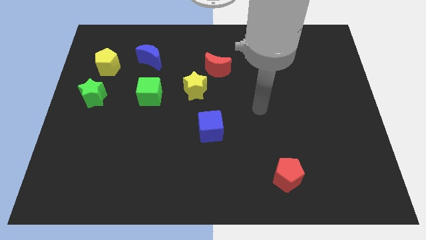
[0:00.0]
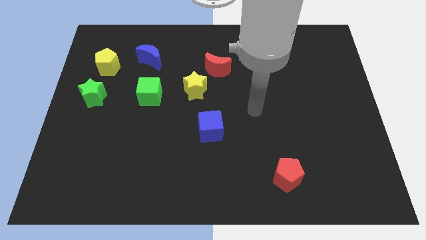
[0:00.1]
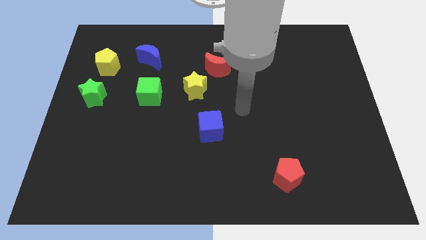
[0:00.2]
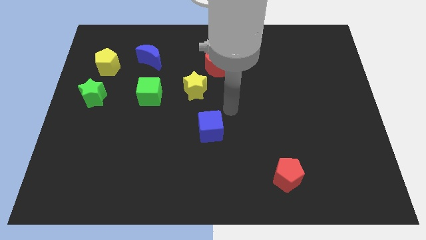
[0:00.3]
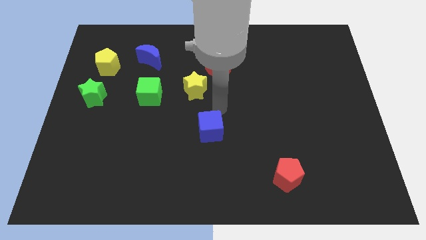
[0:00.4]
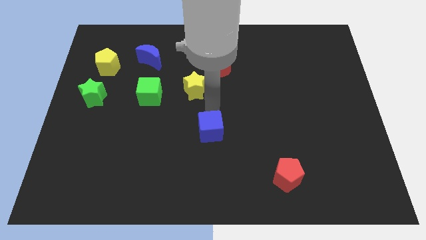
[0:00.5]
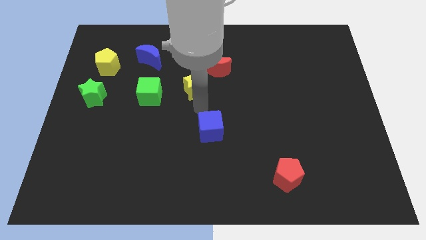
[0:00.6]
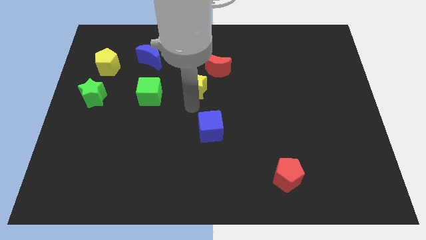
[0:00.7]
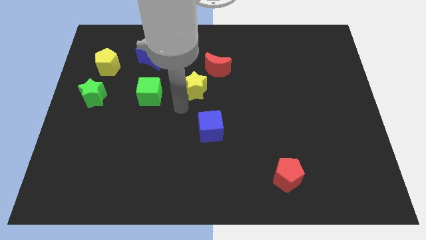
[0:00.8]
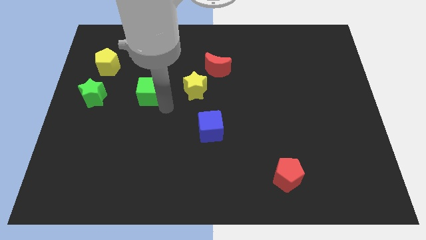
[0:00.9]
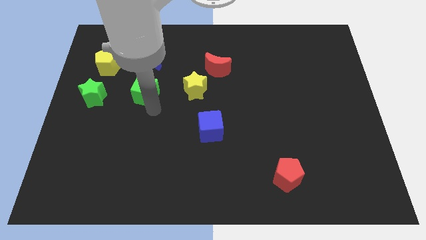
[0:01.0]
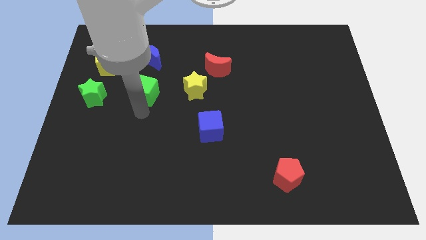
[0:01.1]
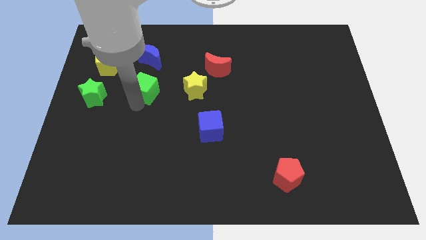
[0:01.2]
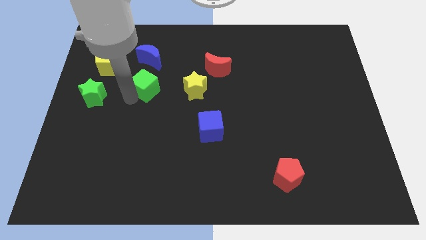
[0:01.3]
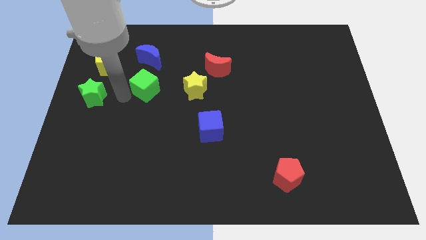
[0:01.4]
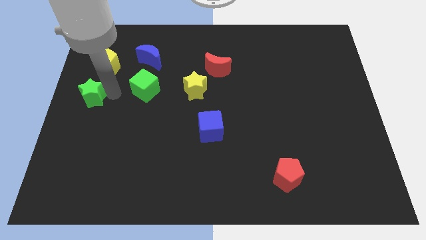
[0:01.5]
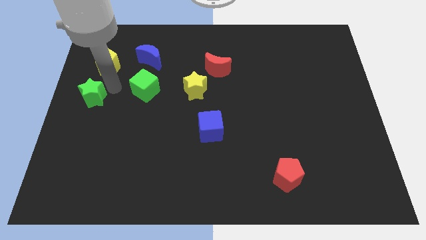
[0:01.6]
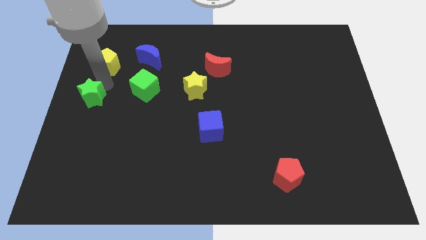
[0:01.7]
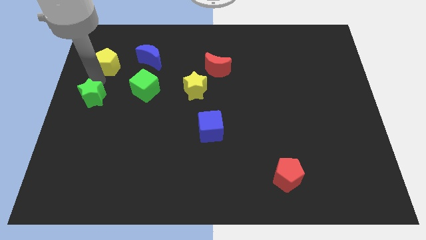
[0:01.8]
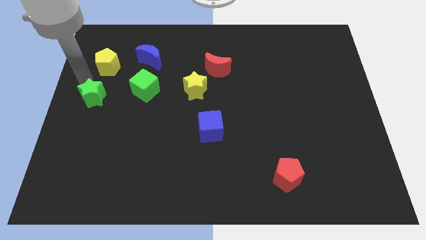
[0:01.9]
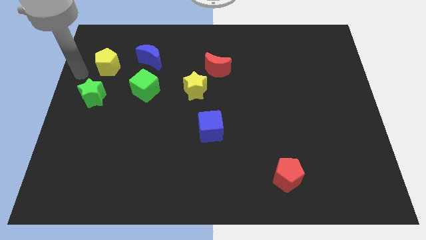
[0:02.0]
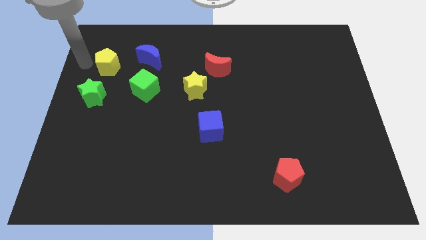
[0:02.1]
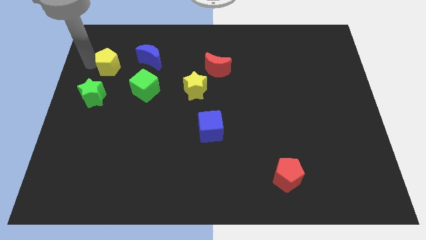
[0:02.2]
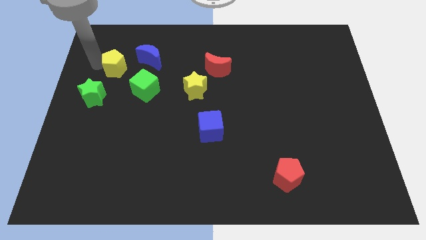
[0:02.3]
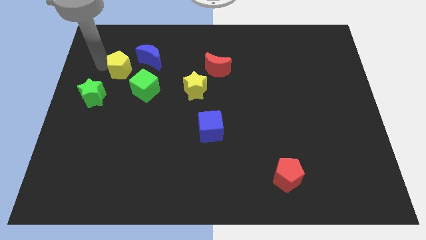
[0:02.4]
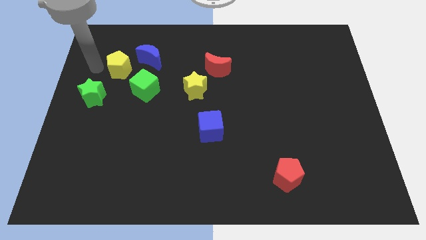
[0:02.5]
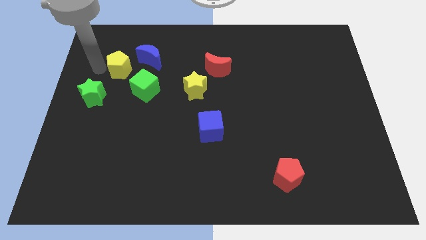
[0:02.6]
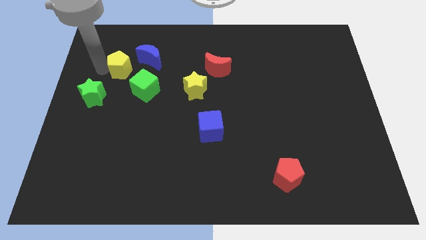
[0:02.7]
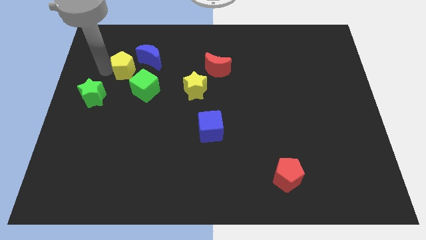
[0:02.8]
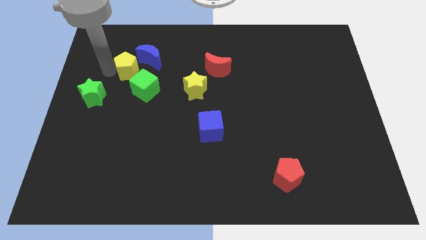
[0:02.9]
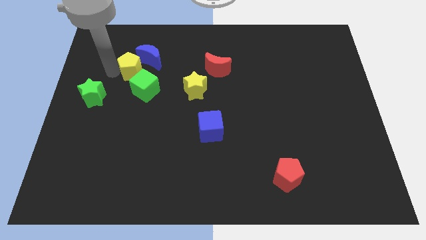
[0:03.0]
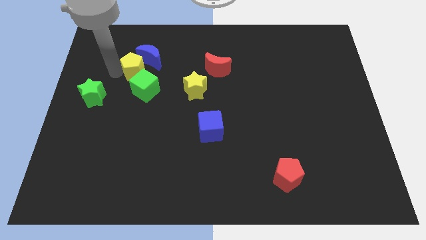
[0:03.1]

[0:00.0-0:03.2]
slightly slide the yellow pentagon to the right

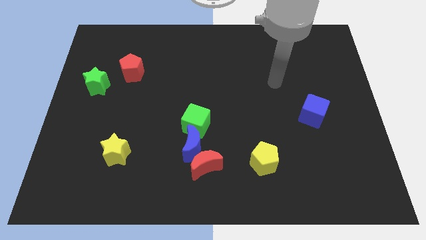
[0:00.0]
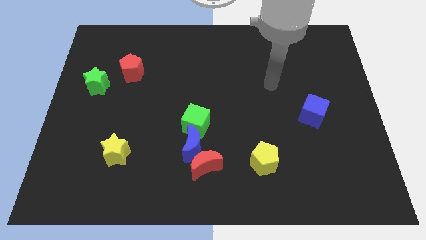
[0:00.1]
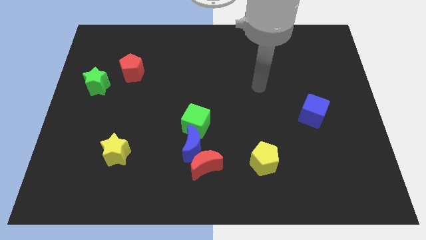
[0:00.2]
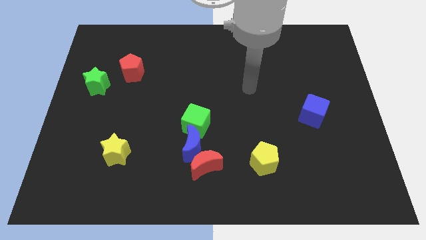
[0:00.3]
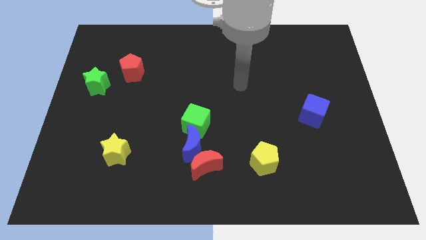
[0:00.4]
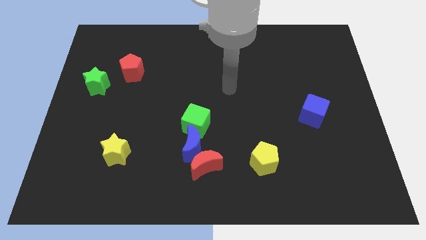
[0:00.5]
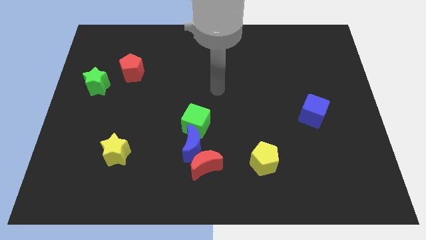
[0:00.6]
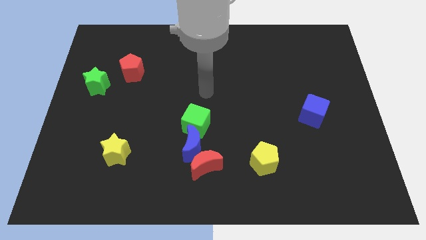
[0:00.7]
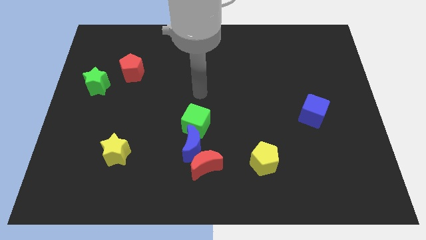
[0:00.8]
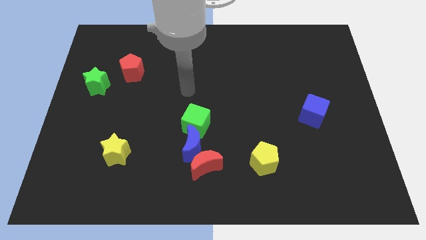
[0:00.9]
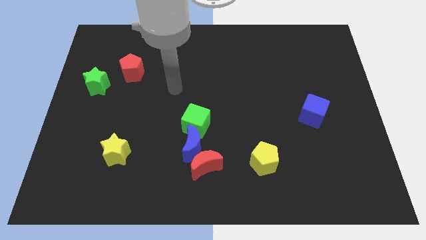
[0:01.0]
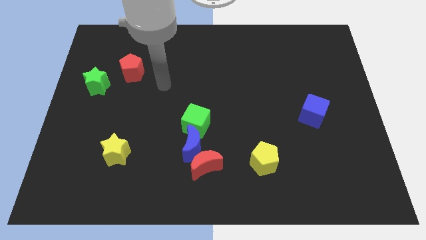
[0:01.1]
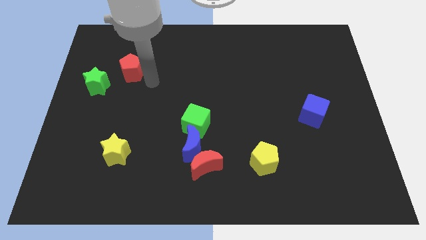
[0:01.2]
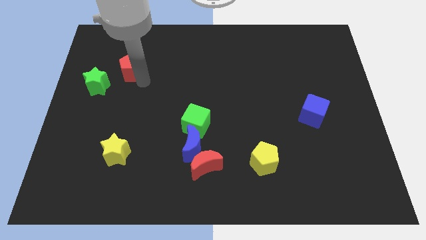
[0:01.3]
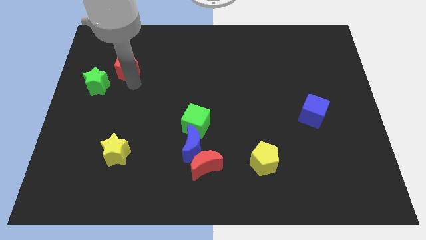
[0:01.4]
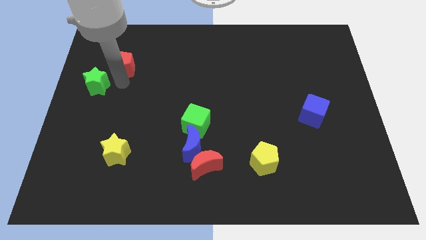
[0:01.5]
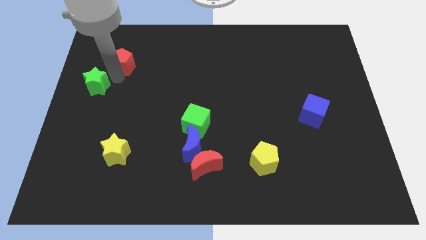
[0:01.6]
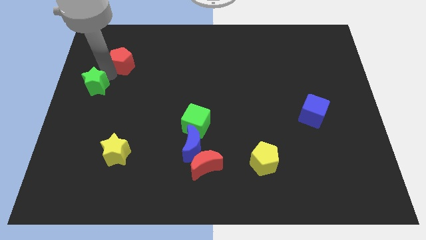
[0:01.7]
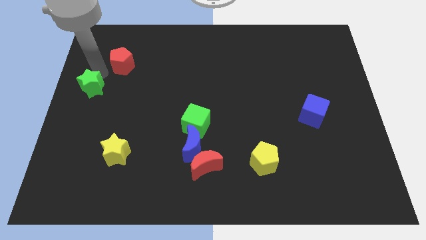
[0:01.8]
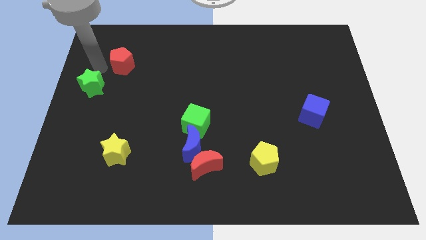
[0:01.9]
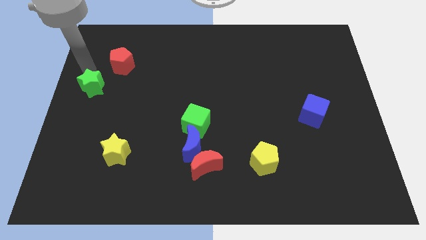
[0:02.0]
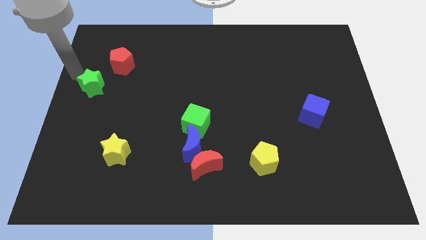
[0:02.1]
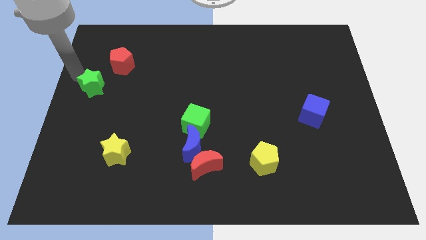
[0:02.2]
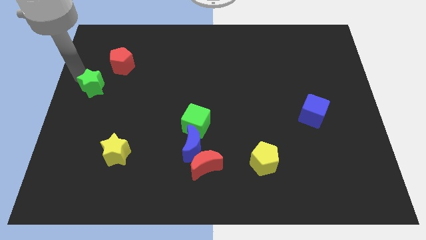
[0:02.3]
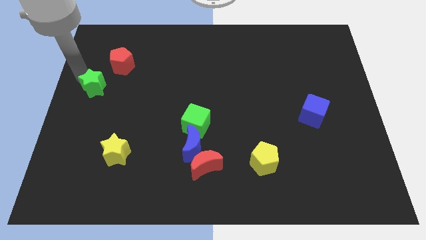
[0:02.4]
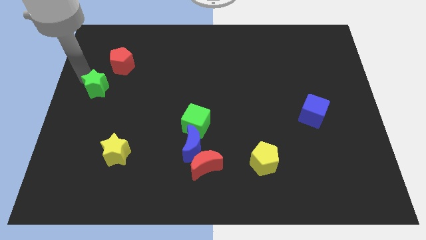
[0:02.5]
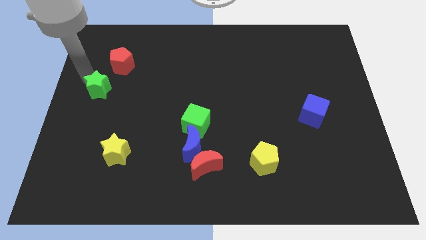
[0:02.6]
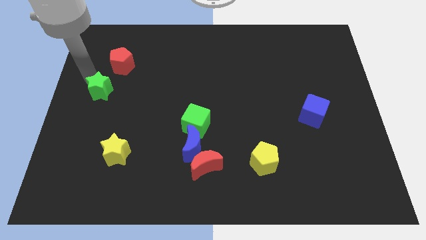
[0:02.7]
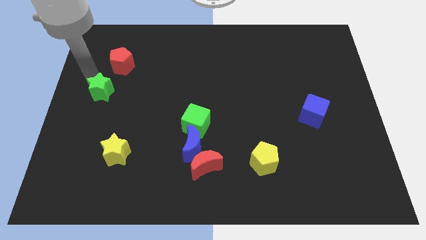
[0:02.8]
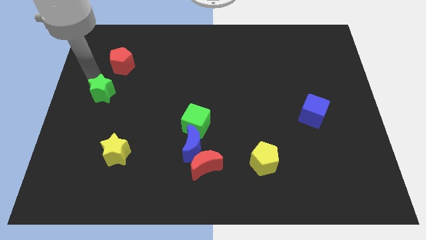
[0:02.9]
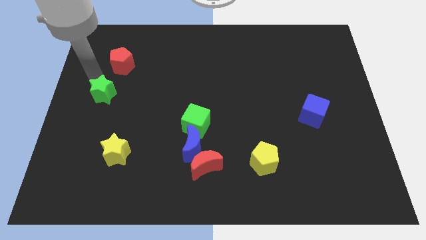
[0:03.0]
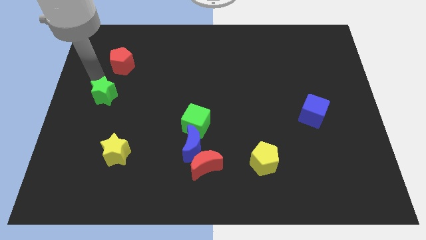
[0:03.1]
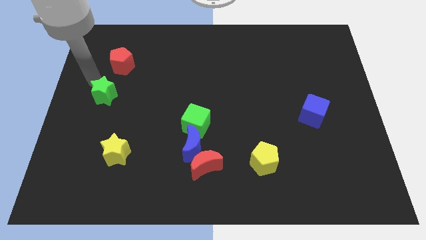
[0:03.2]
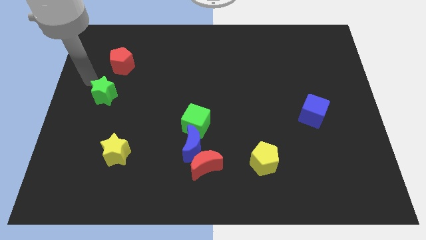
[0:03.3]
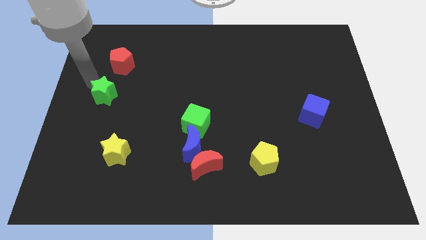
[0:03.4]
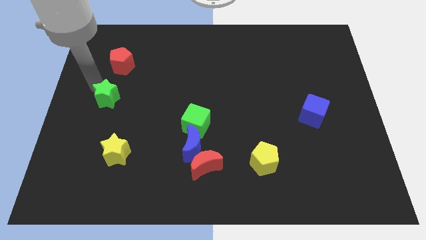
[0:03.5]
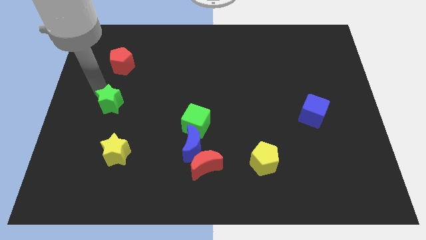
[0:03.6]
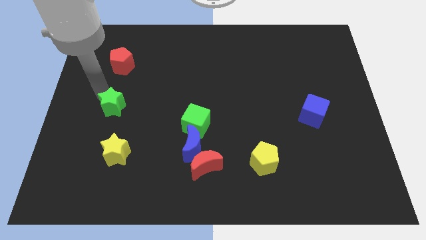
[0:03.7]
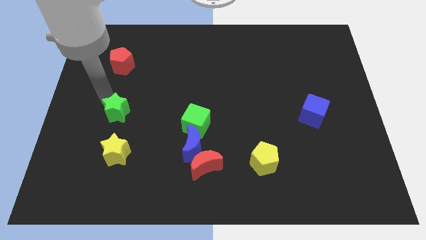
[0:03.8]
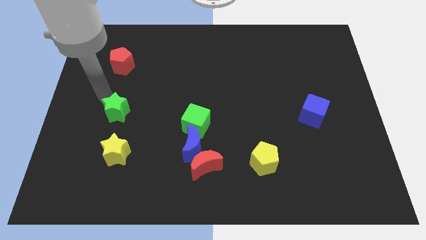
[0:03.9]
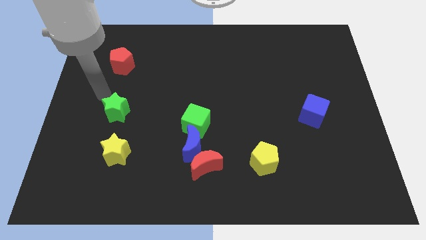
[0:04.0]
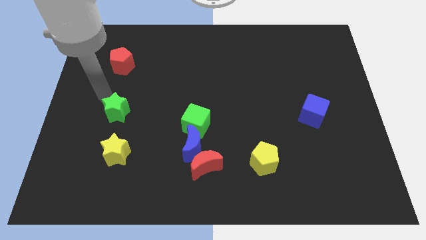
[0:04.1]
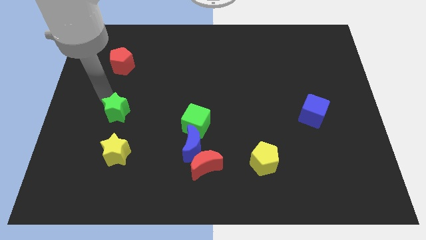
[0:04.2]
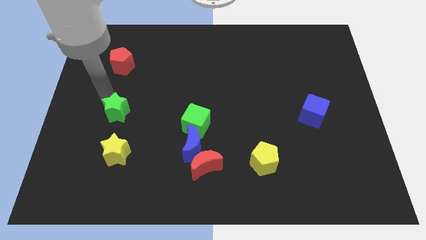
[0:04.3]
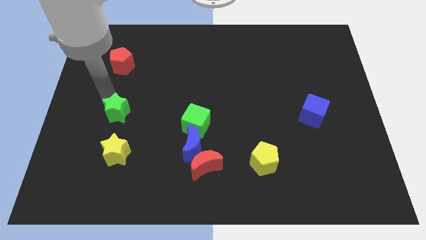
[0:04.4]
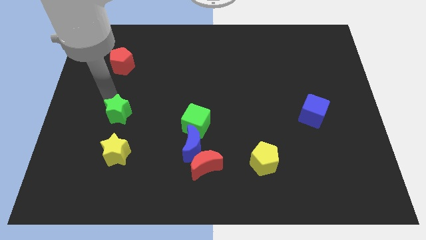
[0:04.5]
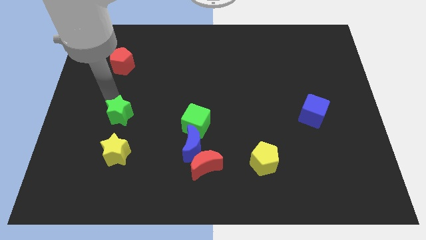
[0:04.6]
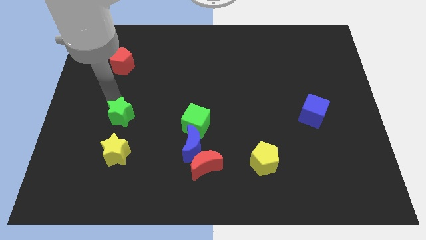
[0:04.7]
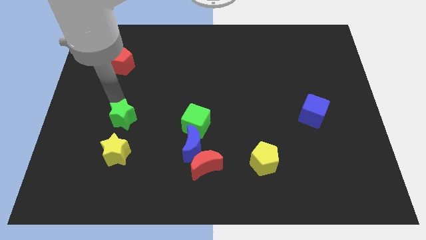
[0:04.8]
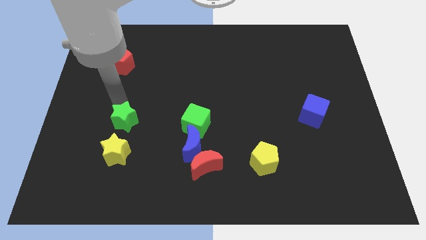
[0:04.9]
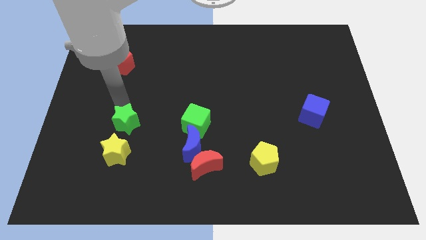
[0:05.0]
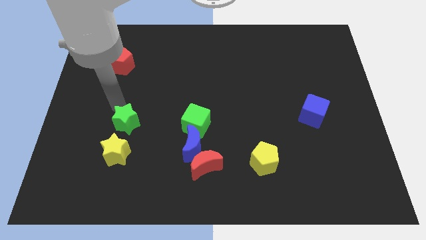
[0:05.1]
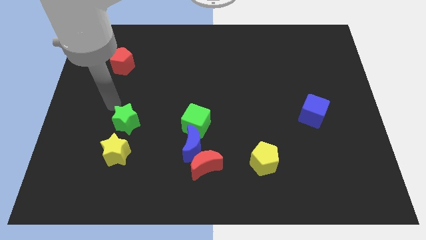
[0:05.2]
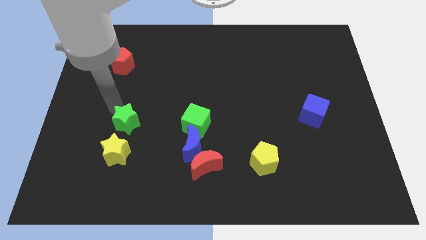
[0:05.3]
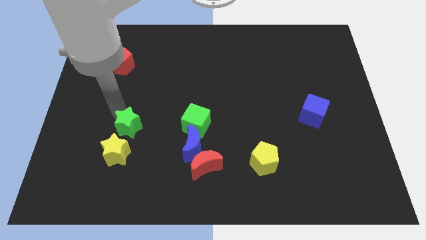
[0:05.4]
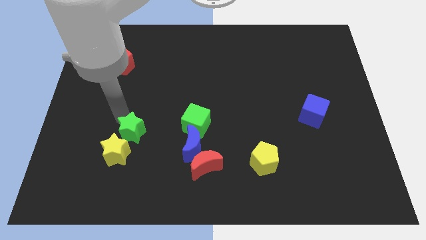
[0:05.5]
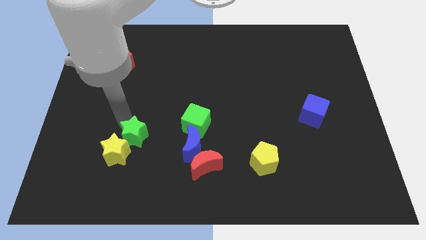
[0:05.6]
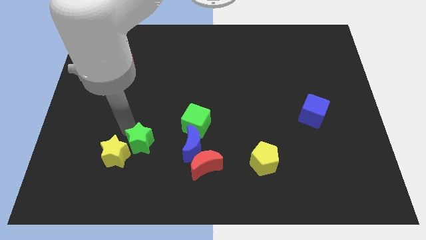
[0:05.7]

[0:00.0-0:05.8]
slide the green star down and to the right diagonally
